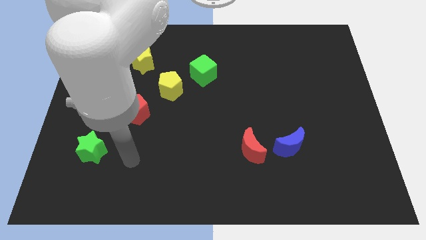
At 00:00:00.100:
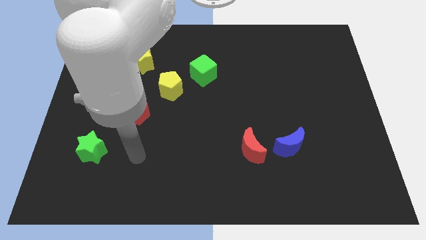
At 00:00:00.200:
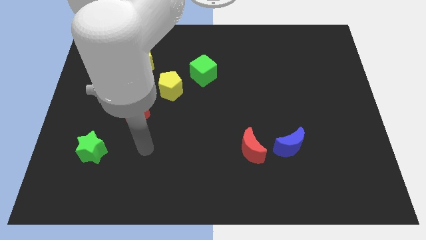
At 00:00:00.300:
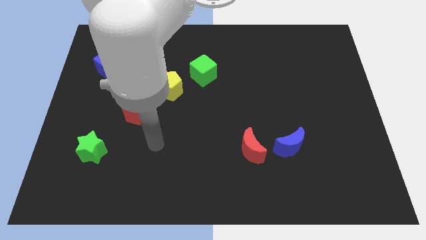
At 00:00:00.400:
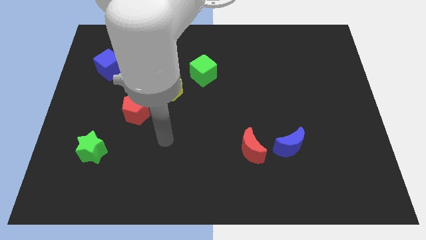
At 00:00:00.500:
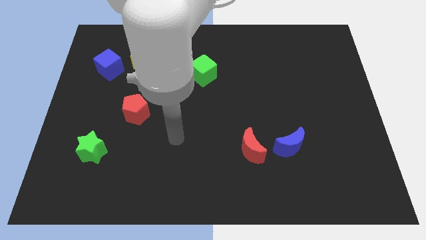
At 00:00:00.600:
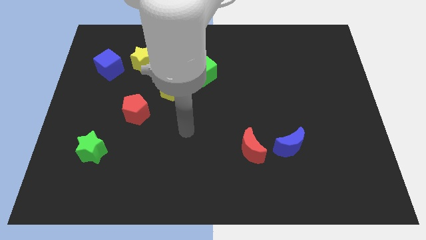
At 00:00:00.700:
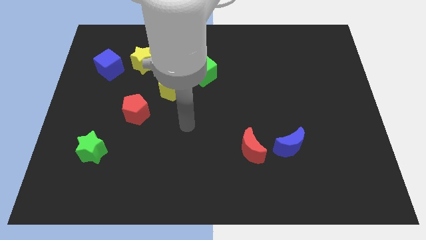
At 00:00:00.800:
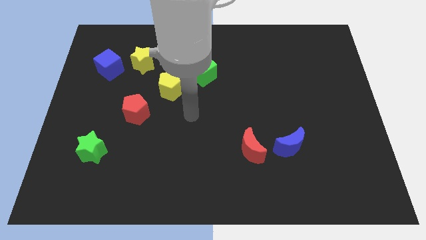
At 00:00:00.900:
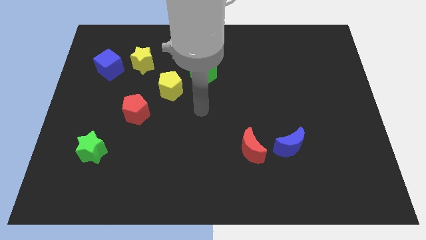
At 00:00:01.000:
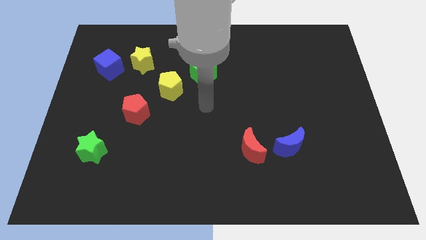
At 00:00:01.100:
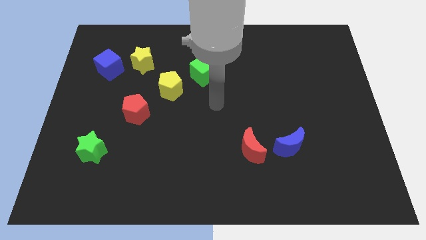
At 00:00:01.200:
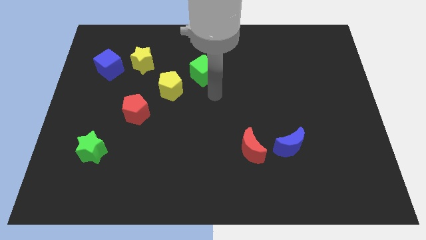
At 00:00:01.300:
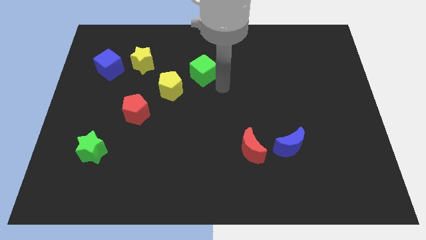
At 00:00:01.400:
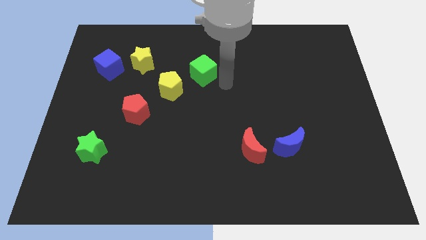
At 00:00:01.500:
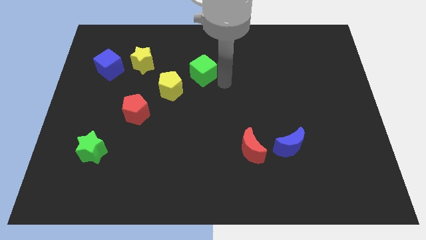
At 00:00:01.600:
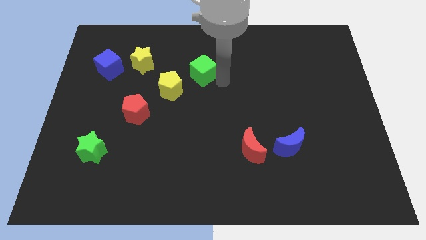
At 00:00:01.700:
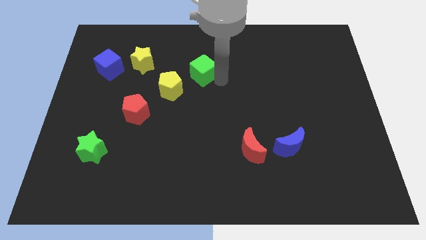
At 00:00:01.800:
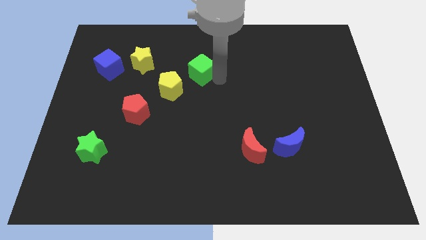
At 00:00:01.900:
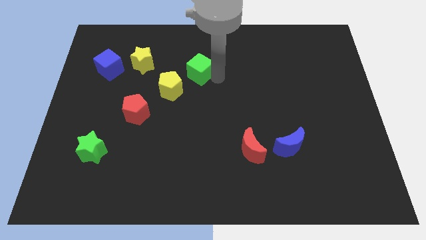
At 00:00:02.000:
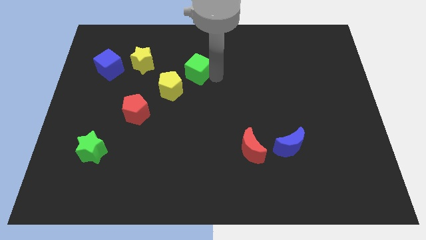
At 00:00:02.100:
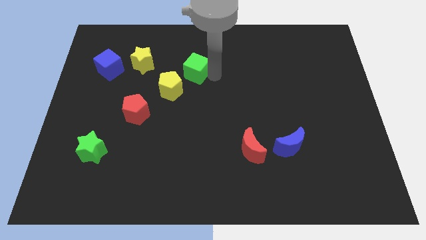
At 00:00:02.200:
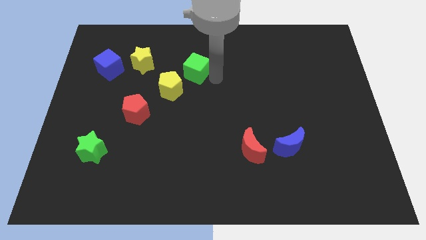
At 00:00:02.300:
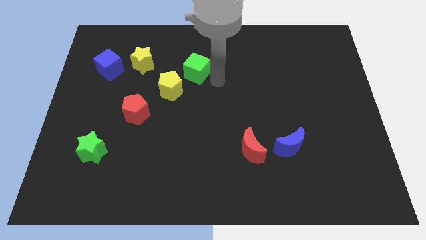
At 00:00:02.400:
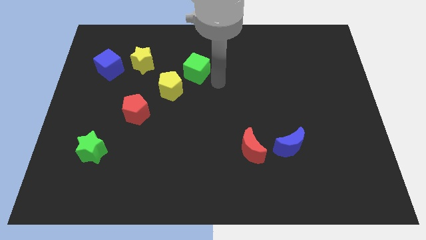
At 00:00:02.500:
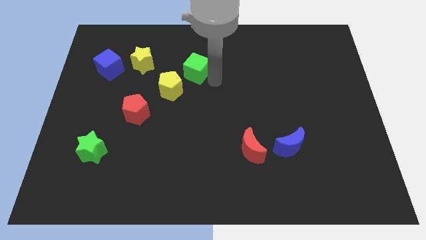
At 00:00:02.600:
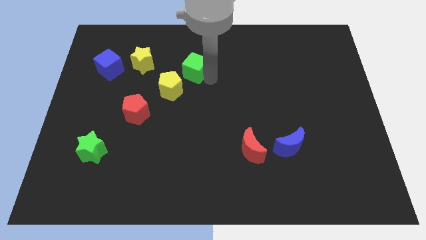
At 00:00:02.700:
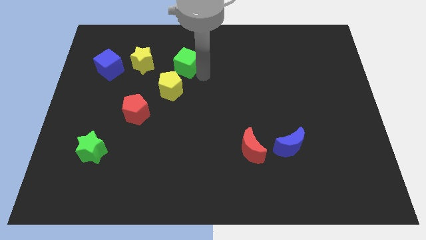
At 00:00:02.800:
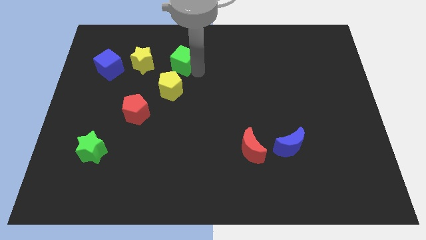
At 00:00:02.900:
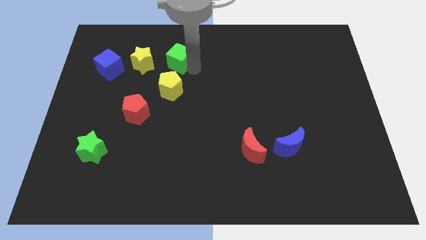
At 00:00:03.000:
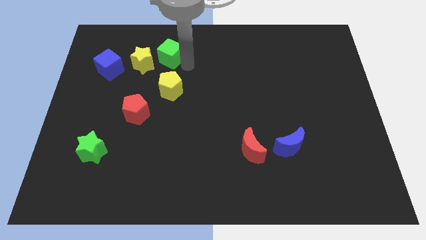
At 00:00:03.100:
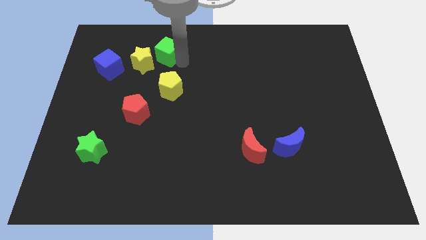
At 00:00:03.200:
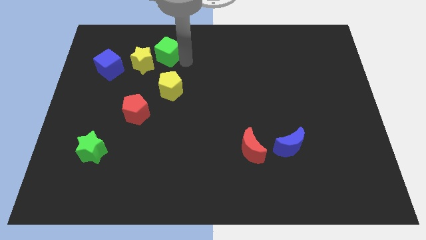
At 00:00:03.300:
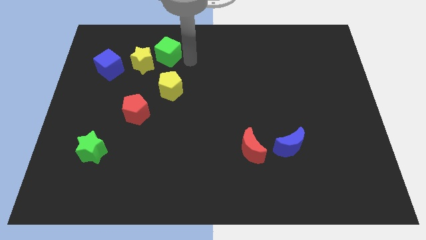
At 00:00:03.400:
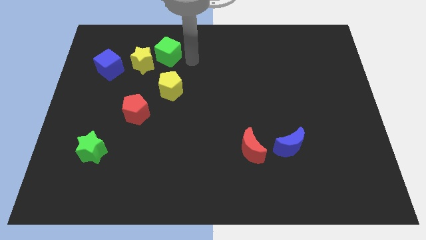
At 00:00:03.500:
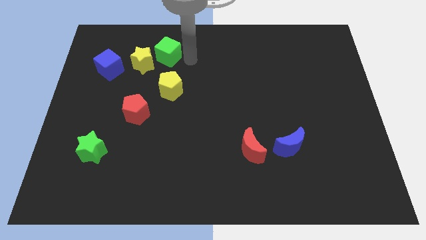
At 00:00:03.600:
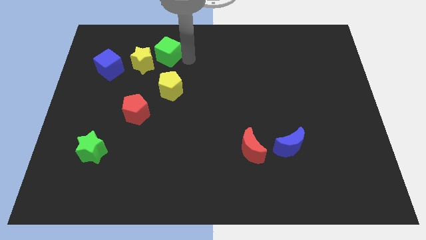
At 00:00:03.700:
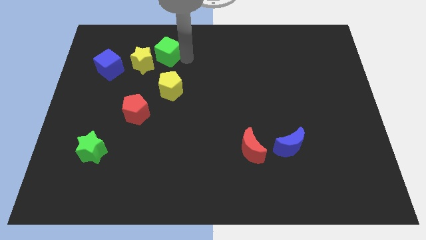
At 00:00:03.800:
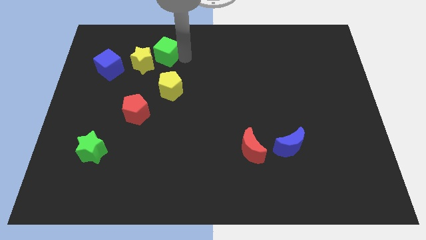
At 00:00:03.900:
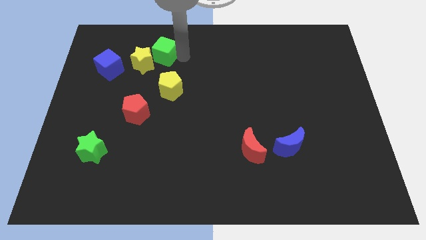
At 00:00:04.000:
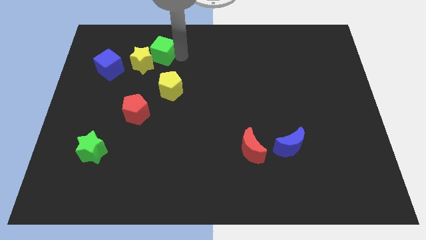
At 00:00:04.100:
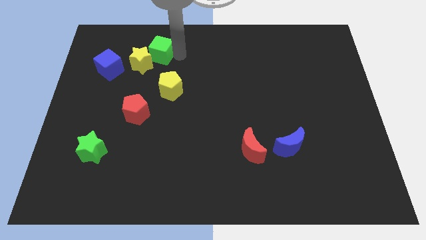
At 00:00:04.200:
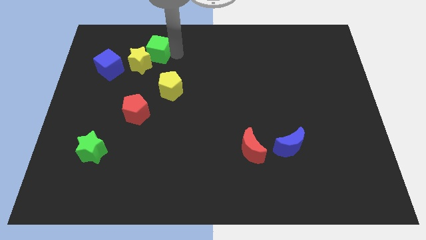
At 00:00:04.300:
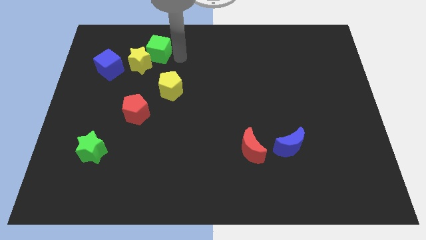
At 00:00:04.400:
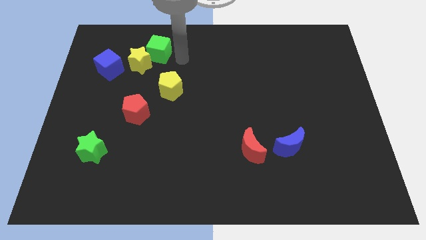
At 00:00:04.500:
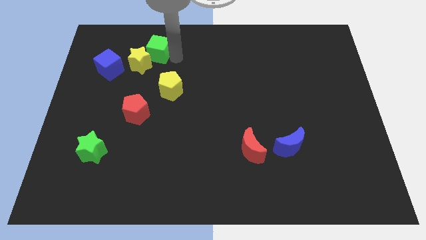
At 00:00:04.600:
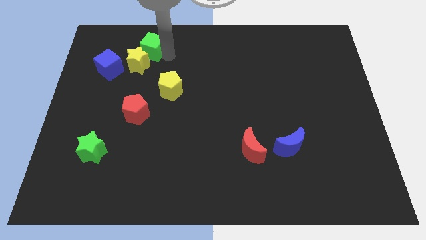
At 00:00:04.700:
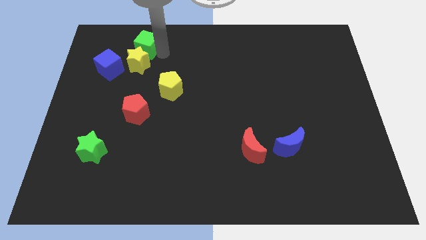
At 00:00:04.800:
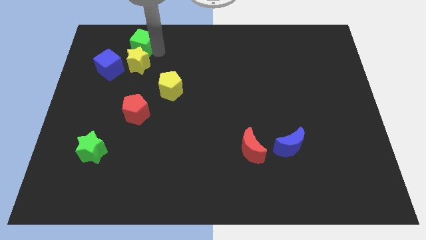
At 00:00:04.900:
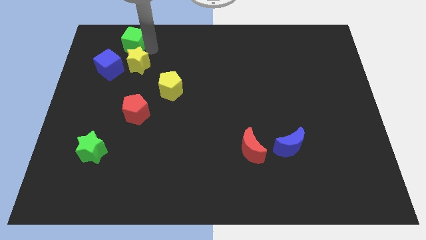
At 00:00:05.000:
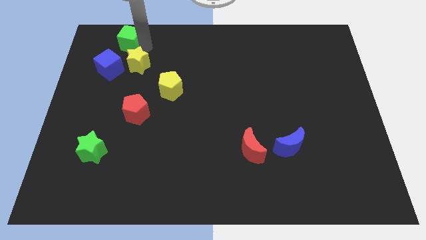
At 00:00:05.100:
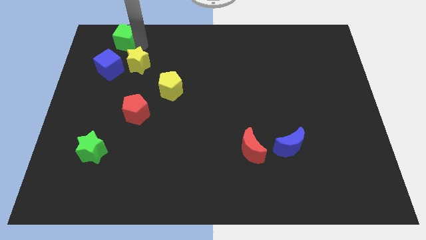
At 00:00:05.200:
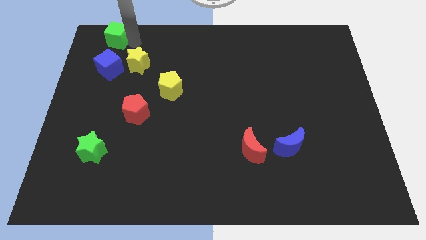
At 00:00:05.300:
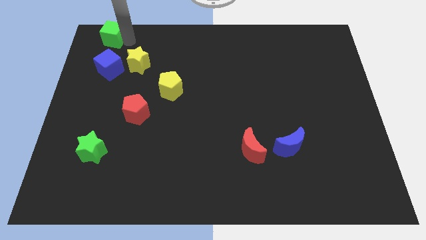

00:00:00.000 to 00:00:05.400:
put the green cube to the upper left corner
